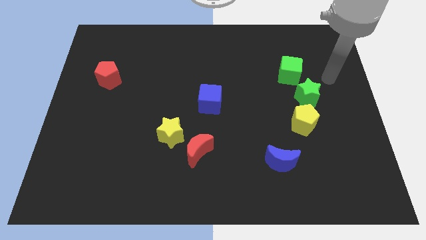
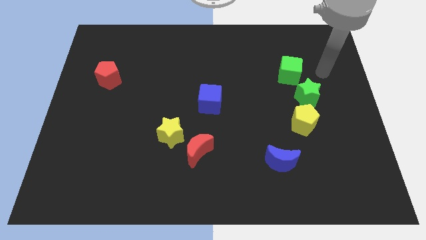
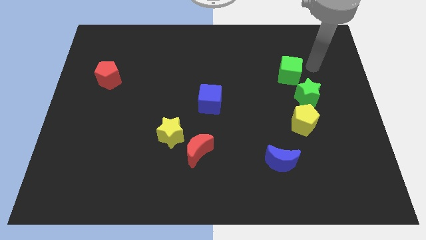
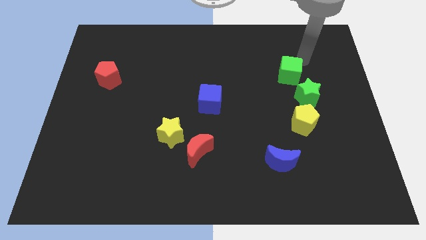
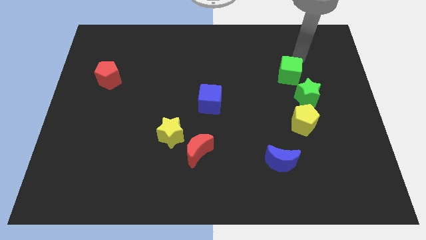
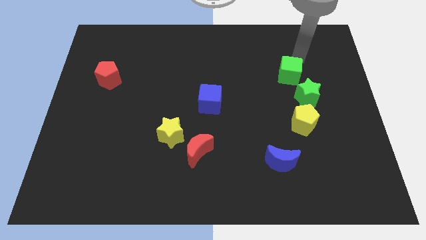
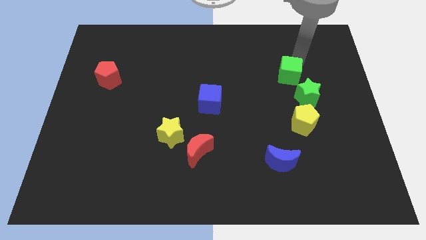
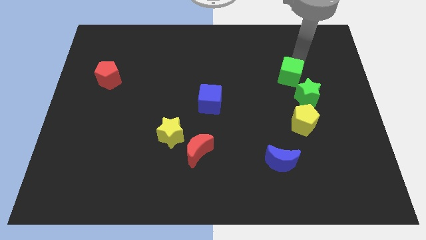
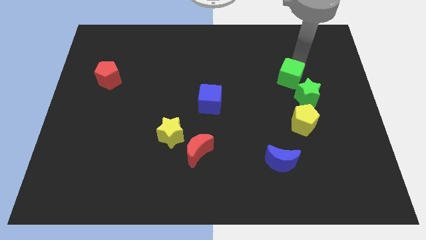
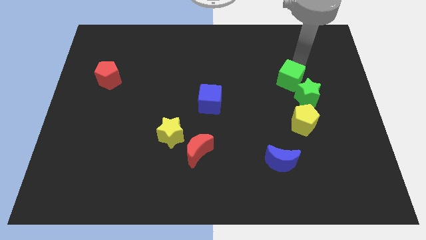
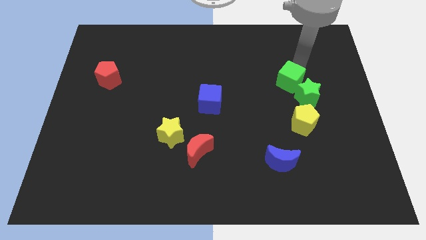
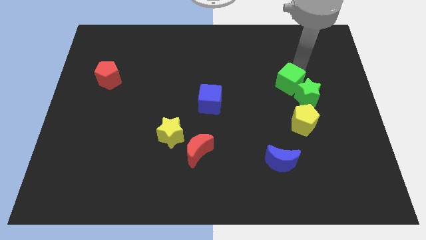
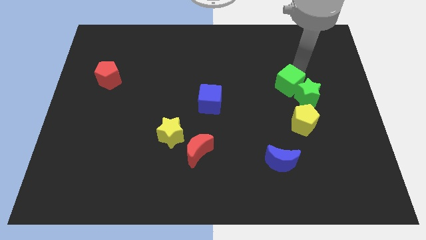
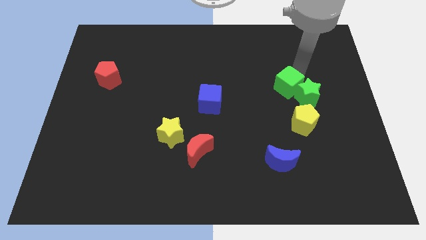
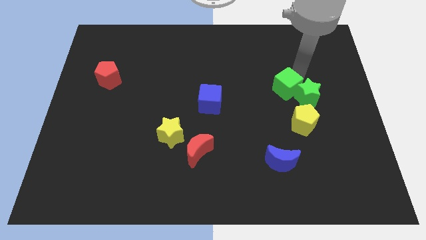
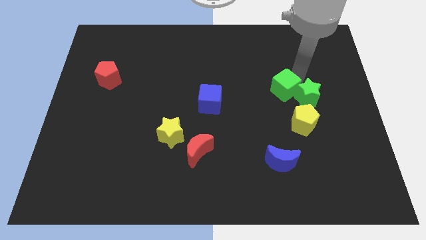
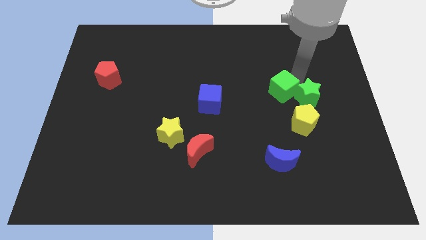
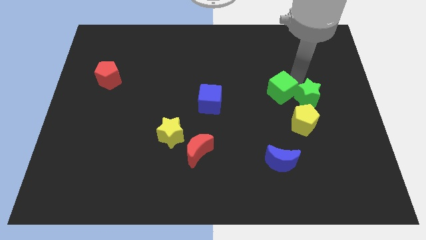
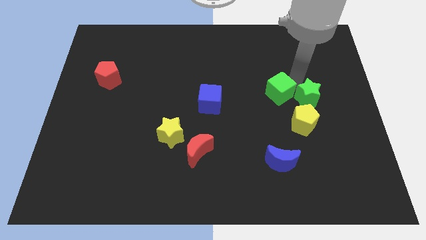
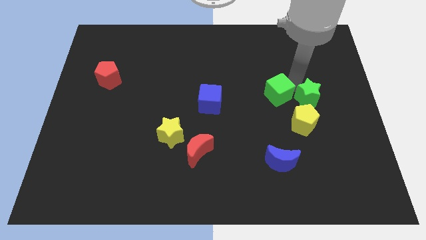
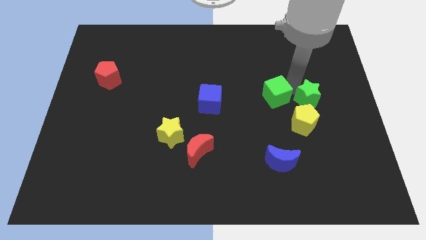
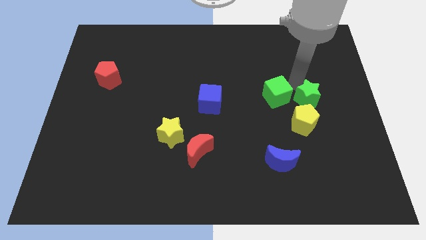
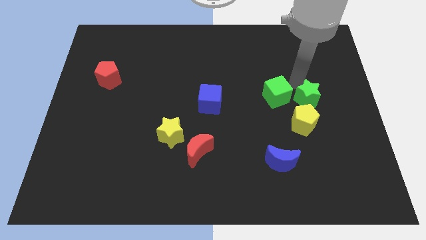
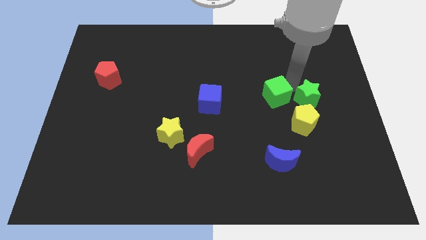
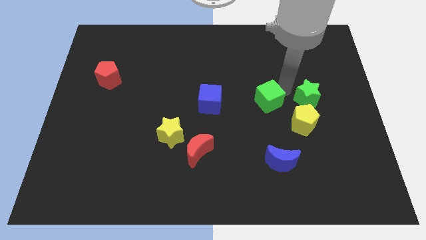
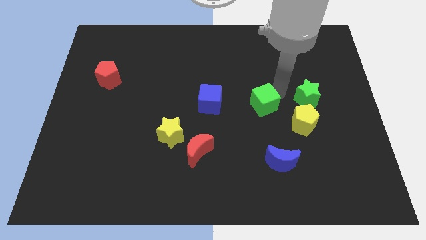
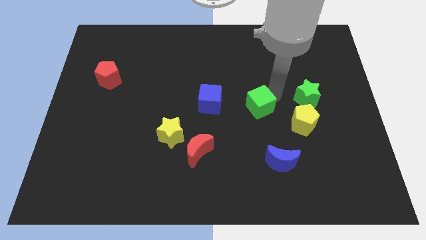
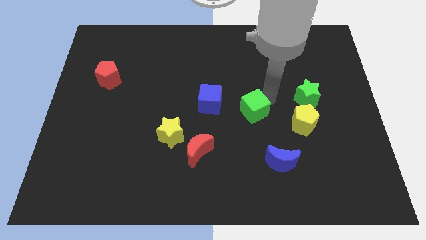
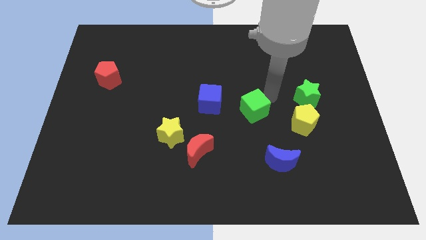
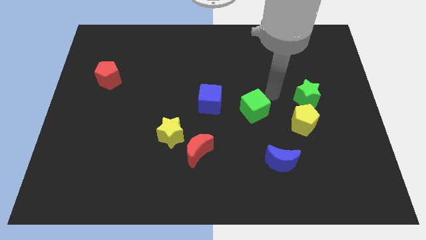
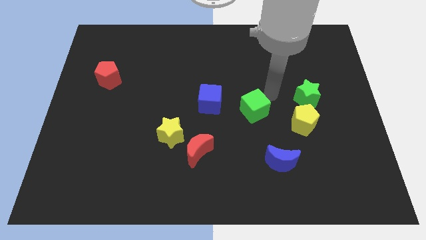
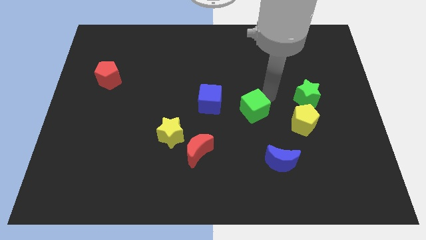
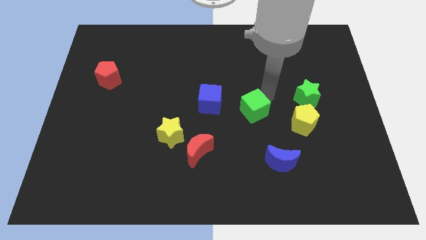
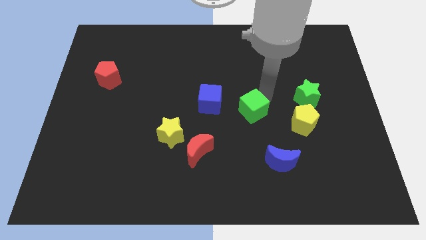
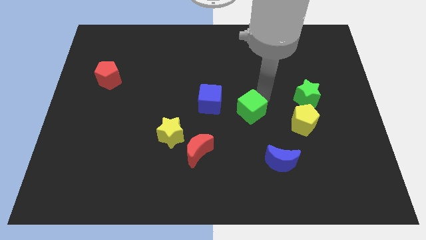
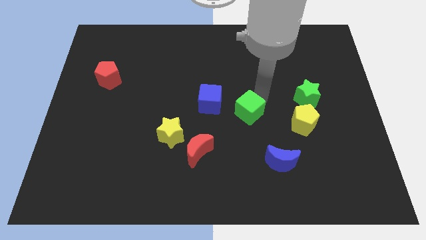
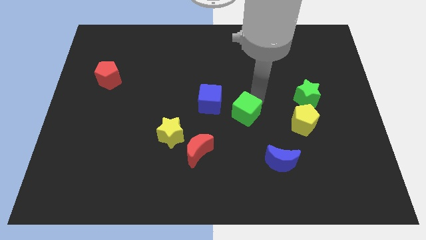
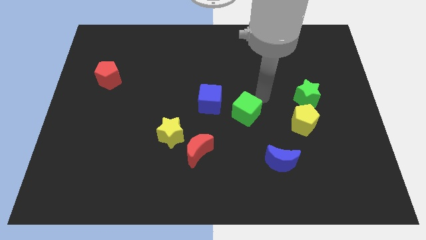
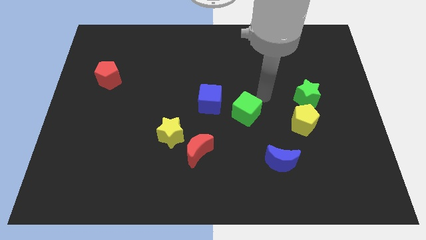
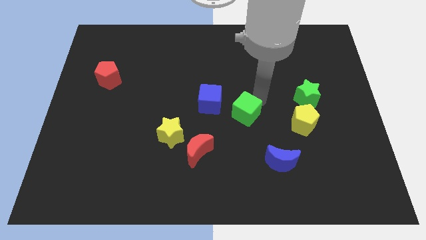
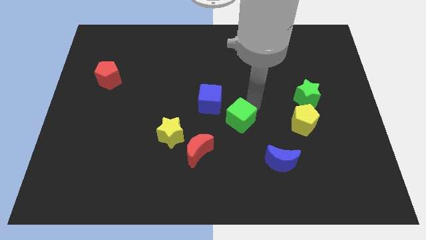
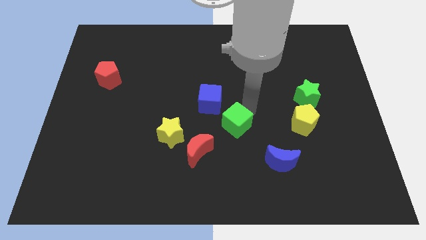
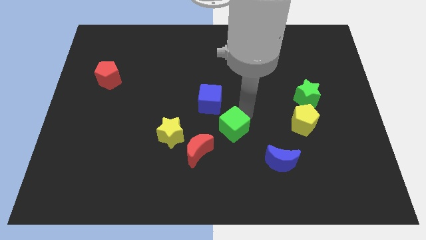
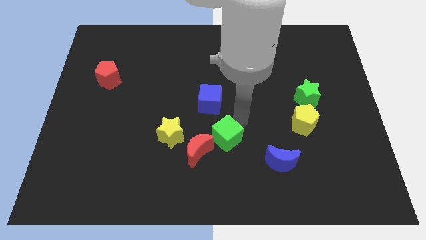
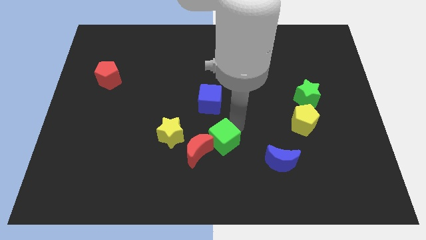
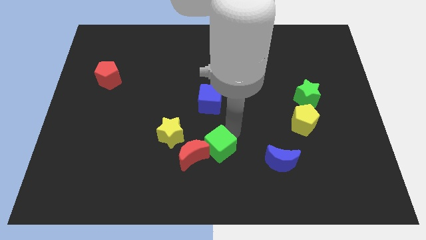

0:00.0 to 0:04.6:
put the green cube next to the red moon

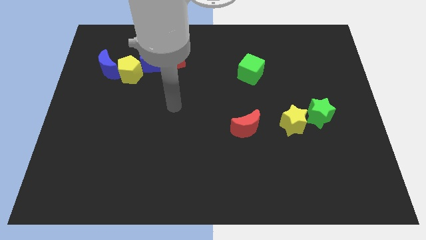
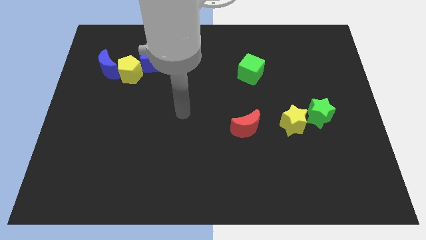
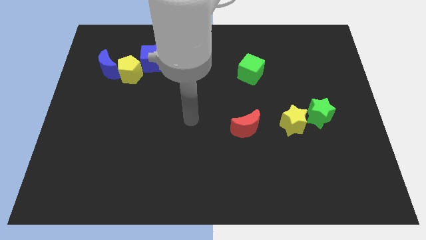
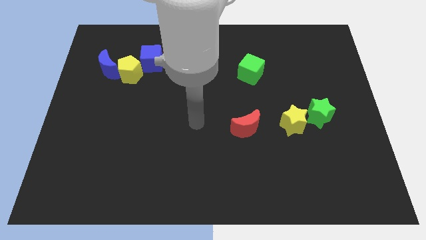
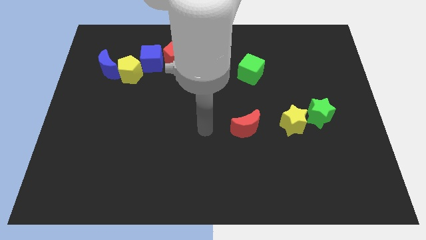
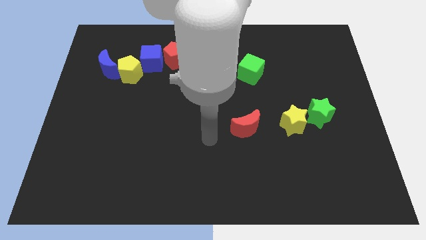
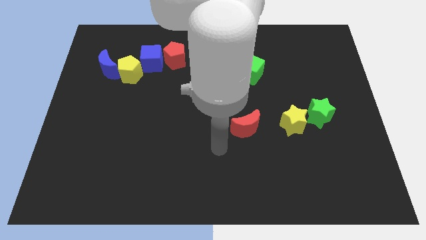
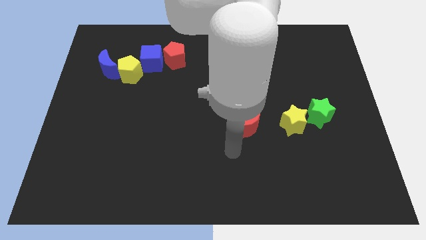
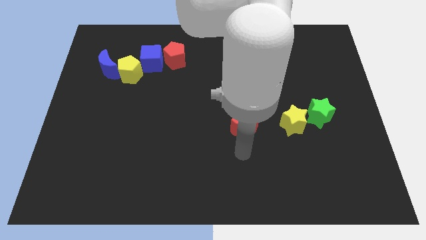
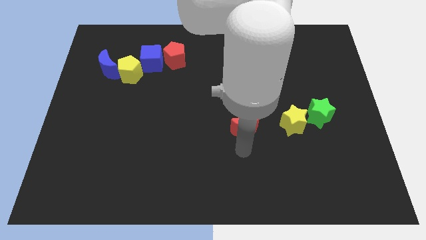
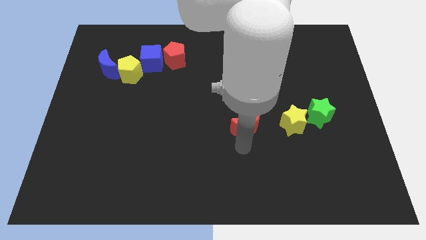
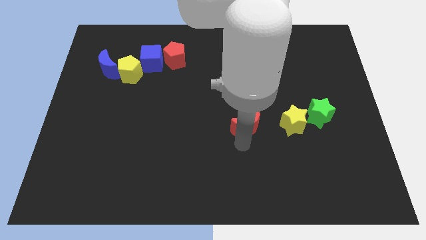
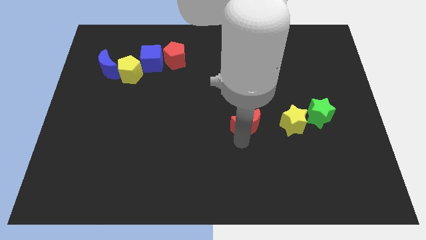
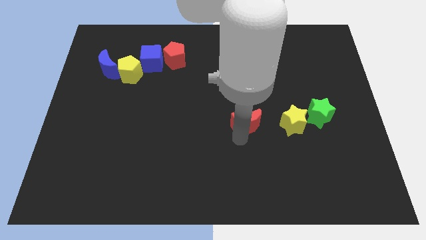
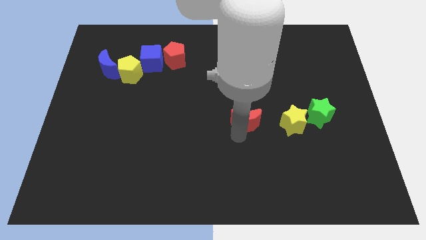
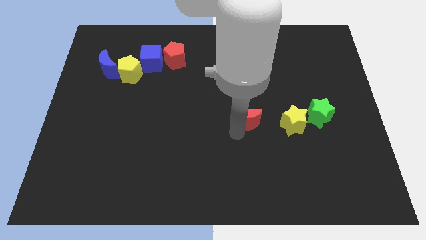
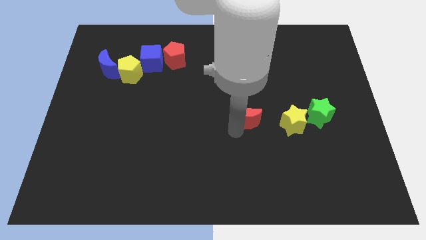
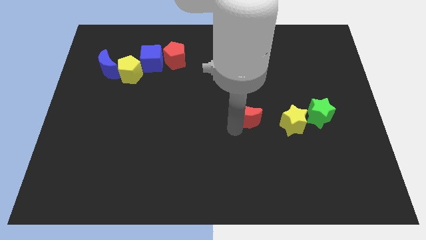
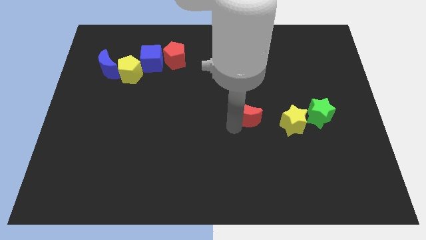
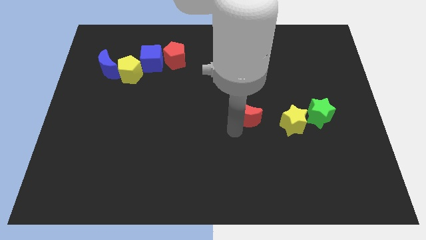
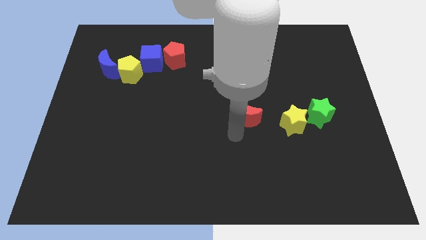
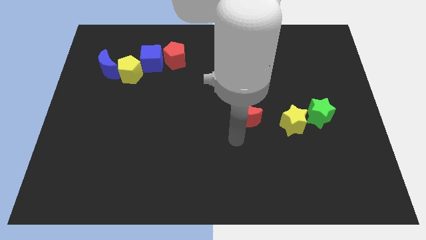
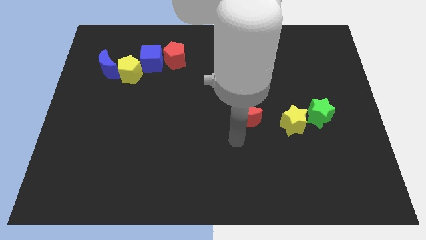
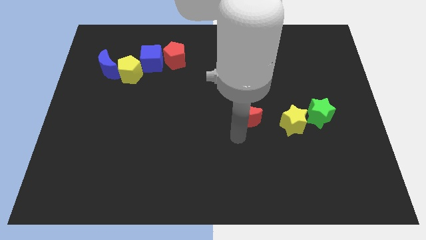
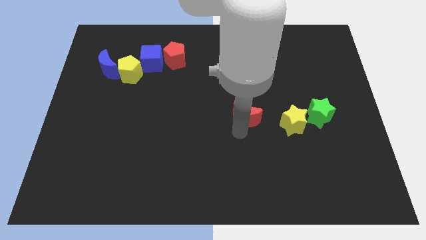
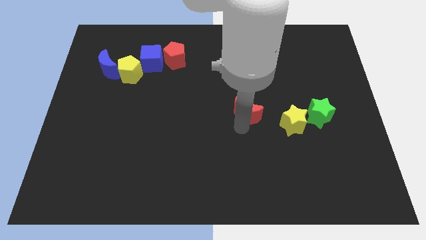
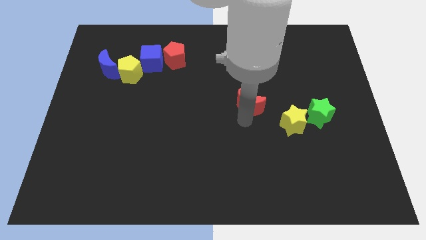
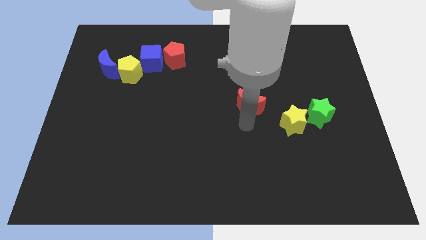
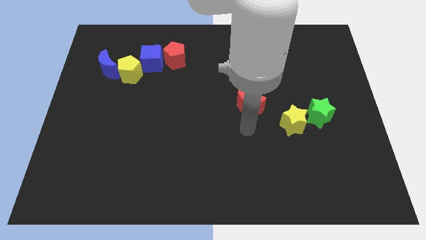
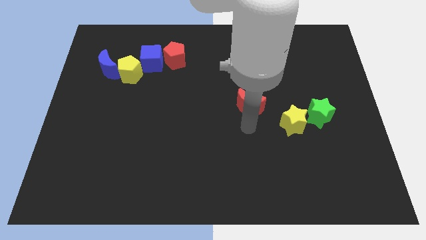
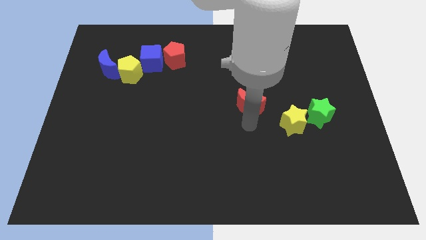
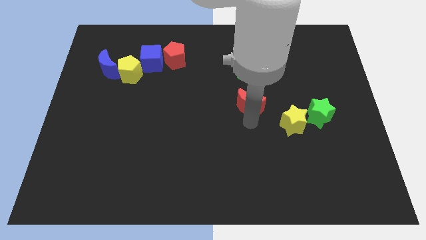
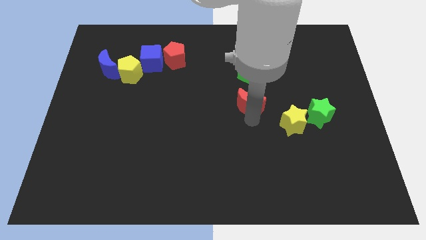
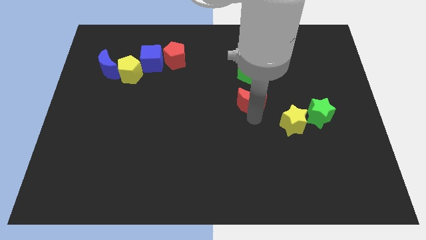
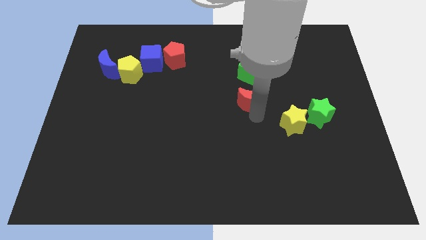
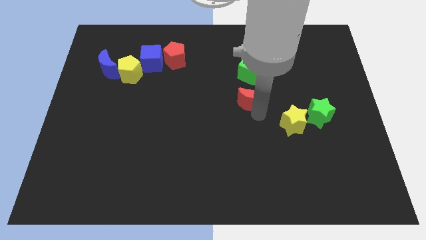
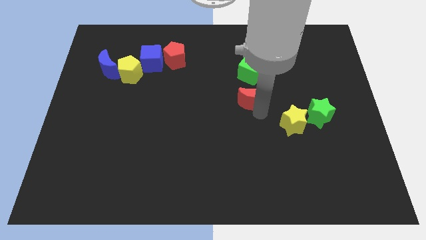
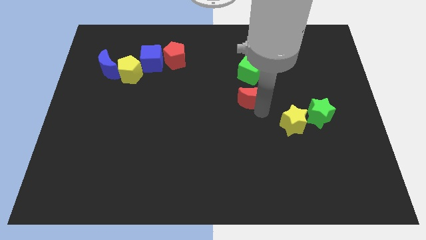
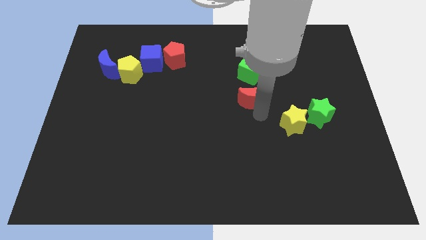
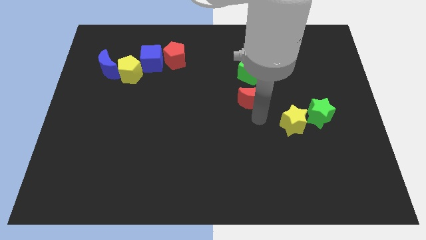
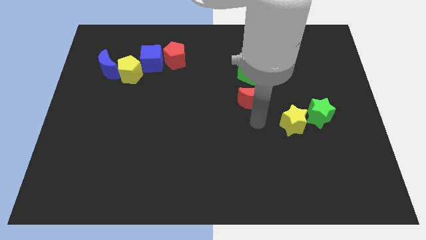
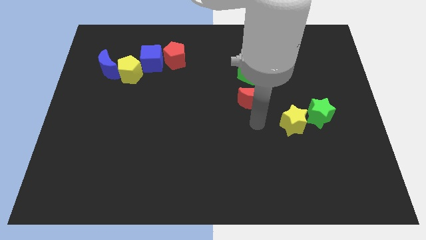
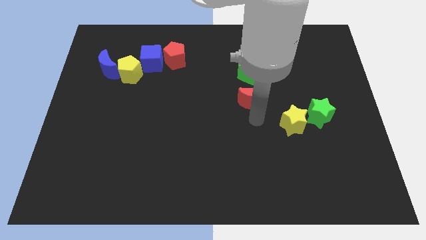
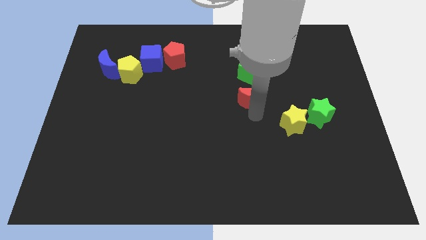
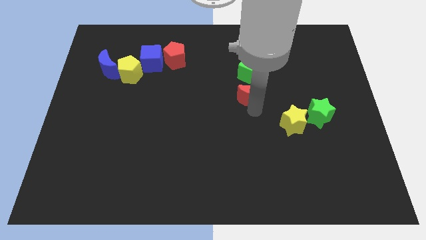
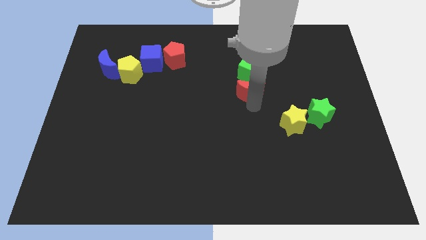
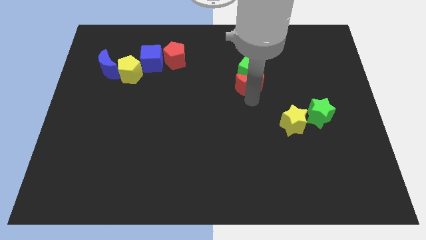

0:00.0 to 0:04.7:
push the red moon next to the green cube
